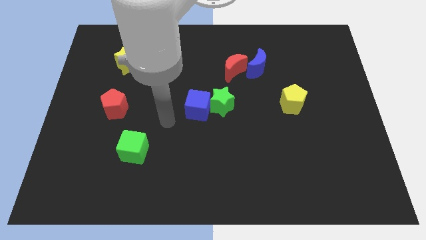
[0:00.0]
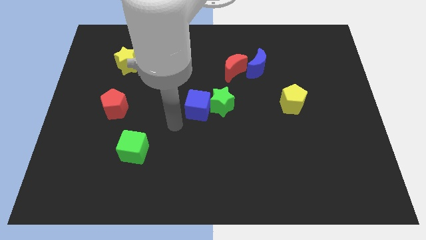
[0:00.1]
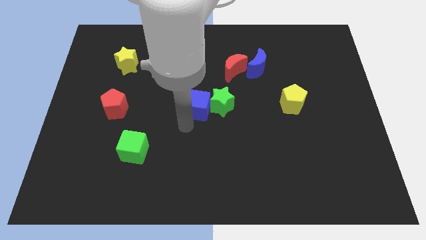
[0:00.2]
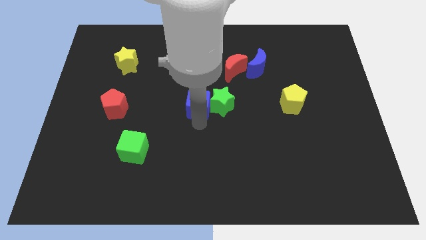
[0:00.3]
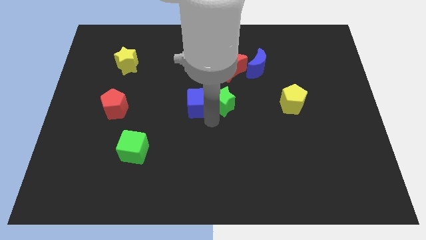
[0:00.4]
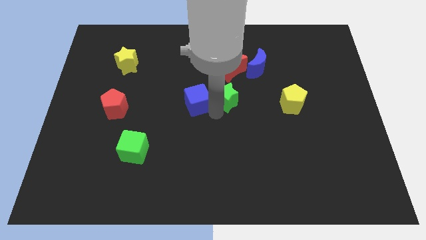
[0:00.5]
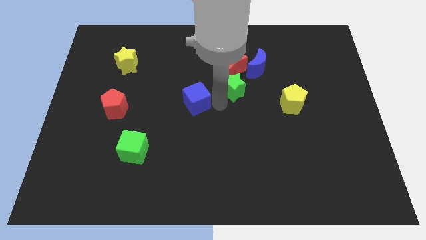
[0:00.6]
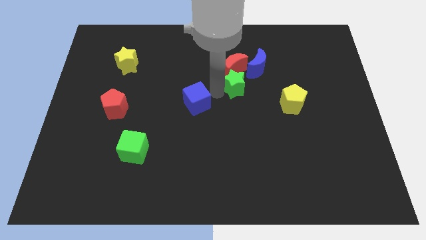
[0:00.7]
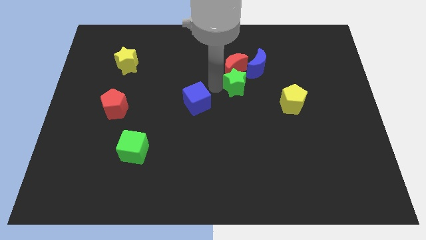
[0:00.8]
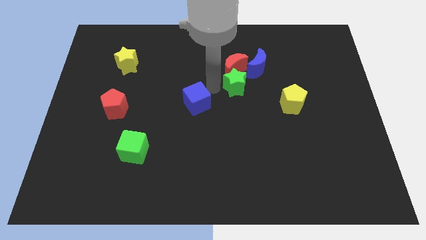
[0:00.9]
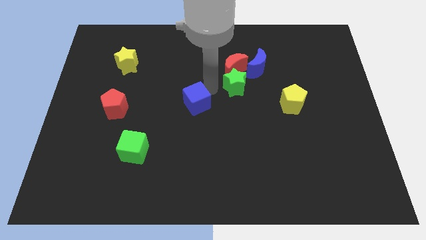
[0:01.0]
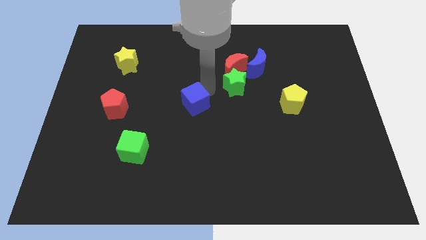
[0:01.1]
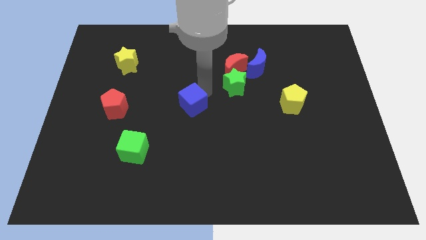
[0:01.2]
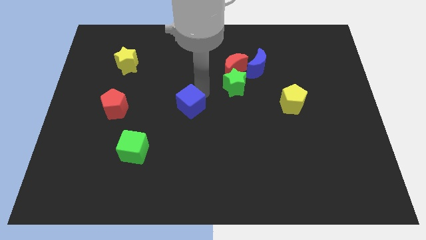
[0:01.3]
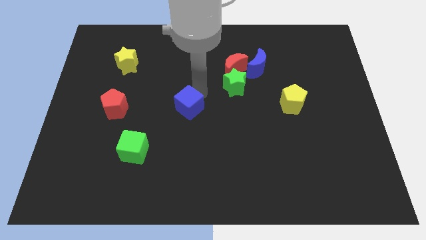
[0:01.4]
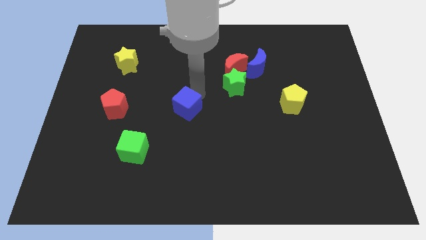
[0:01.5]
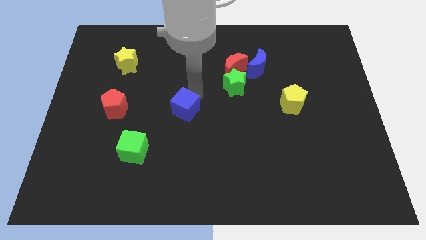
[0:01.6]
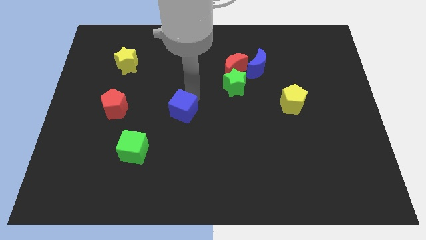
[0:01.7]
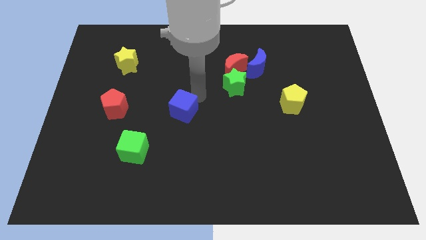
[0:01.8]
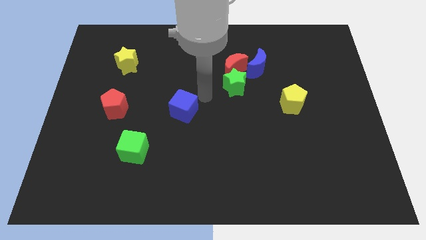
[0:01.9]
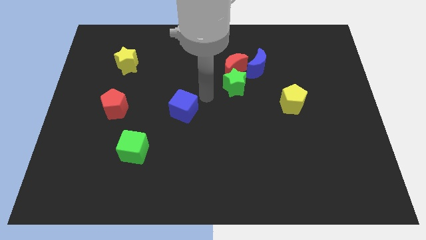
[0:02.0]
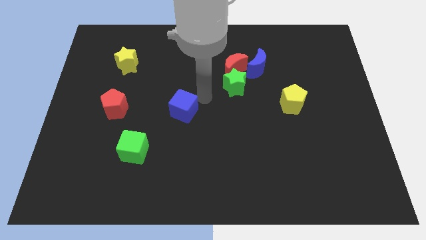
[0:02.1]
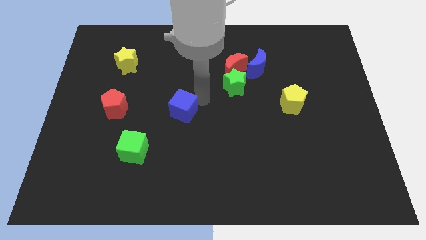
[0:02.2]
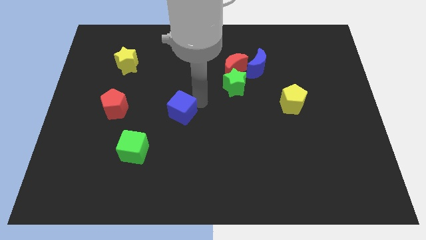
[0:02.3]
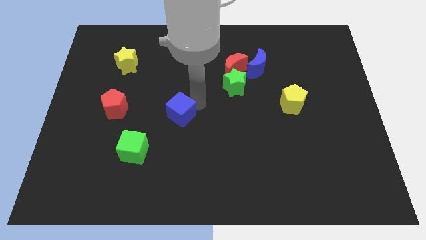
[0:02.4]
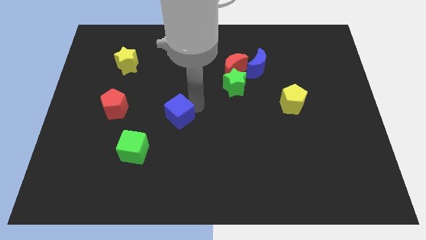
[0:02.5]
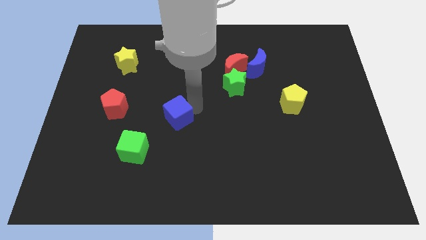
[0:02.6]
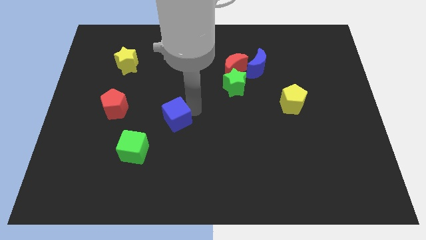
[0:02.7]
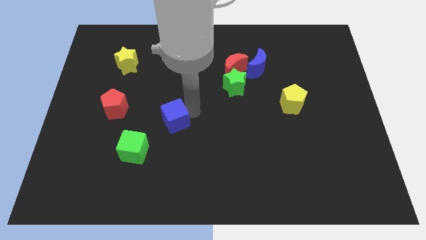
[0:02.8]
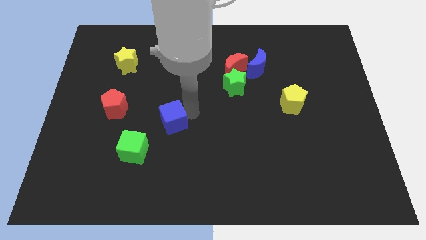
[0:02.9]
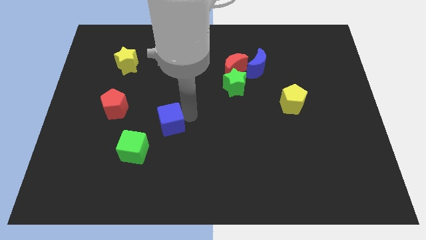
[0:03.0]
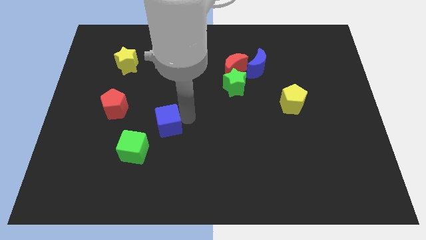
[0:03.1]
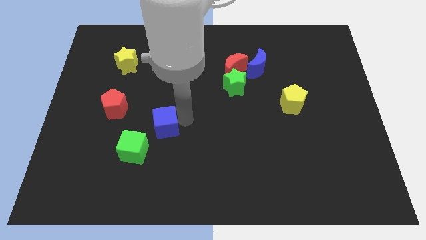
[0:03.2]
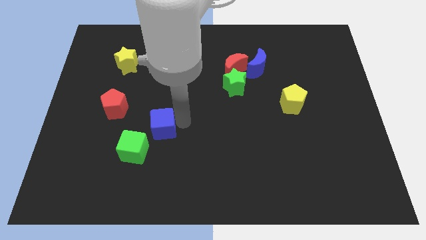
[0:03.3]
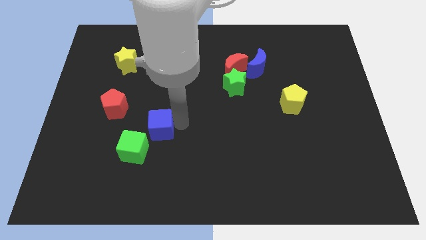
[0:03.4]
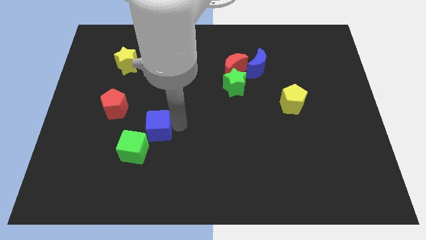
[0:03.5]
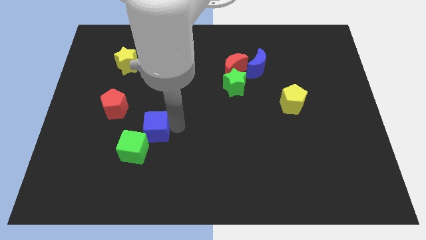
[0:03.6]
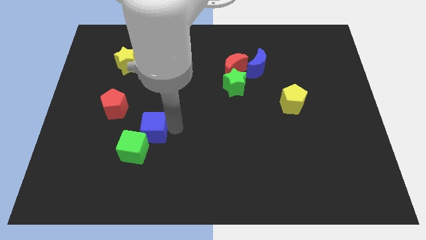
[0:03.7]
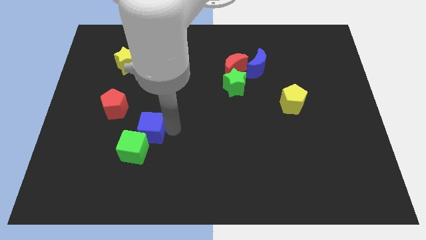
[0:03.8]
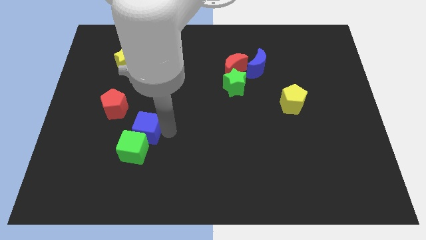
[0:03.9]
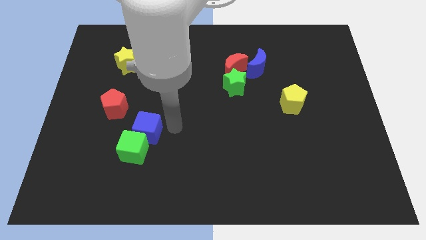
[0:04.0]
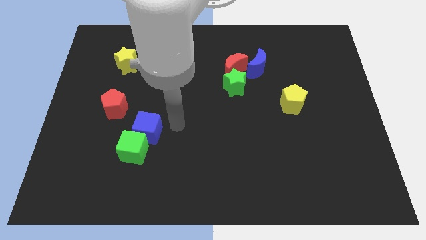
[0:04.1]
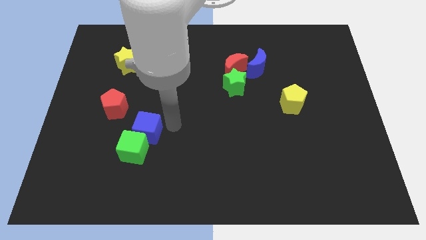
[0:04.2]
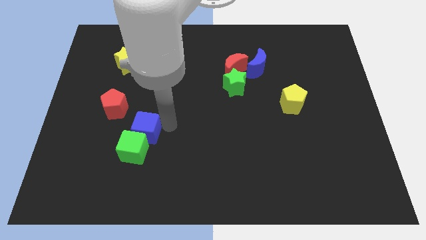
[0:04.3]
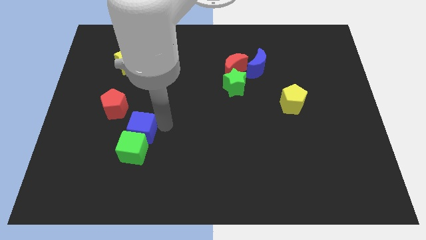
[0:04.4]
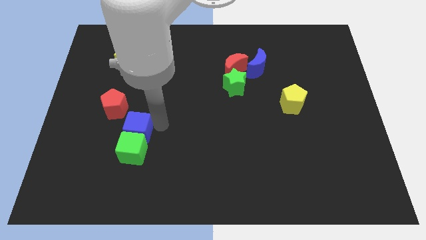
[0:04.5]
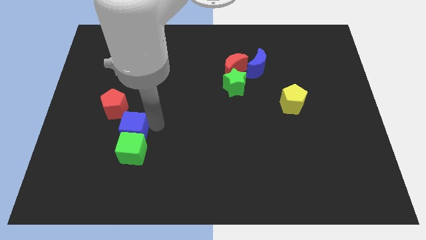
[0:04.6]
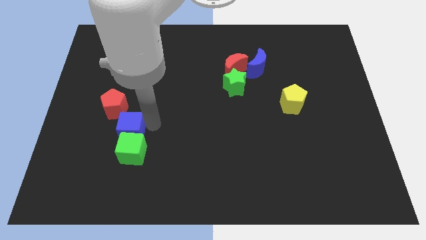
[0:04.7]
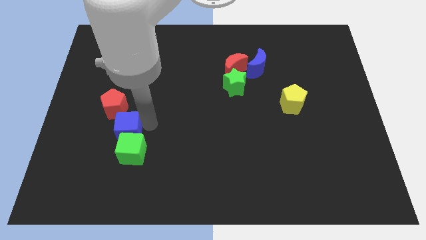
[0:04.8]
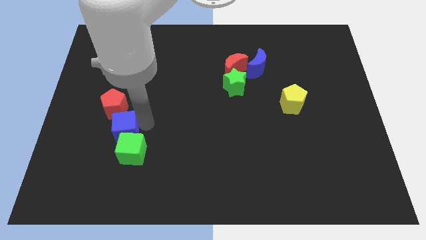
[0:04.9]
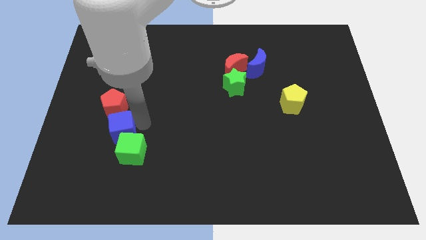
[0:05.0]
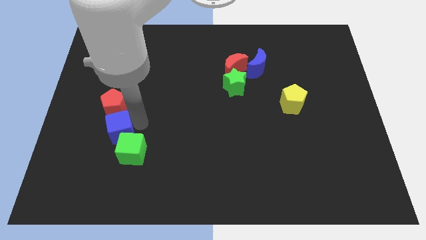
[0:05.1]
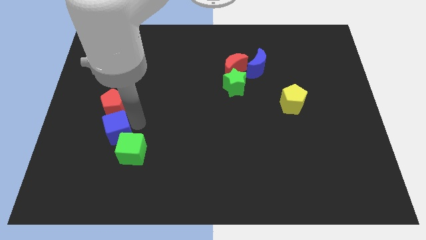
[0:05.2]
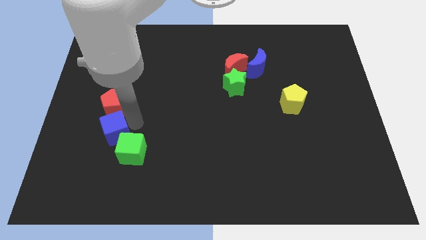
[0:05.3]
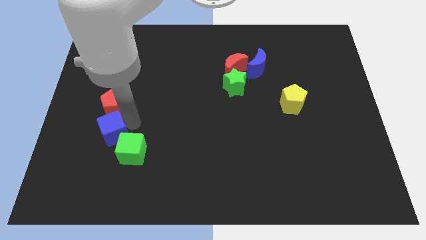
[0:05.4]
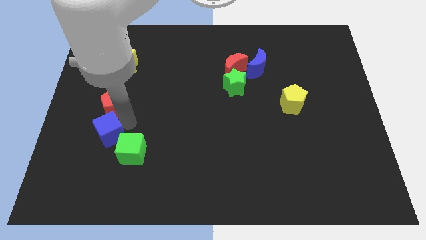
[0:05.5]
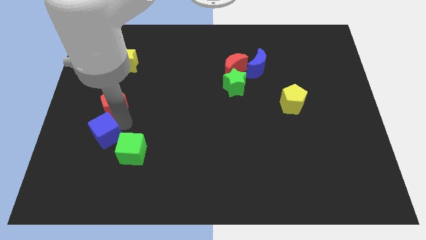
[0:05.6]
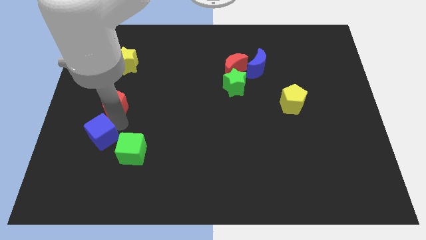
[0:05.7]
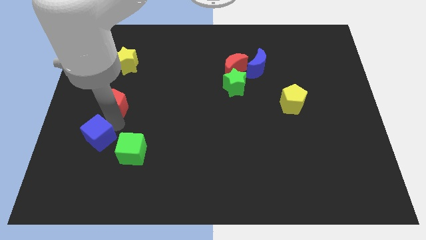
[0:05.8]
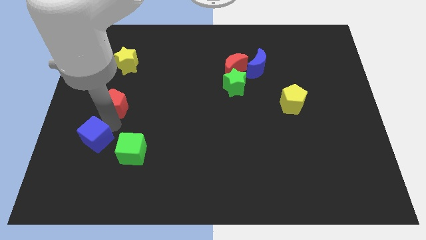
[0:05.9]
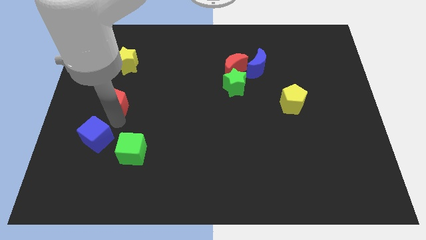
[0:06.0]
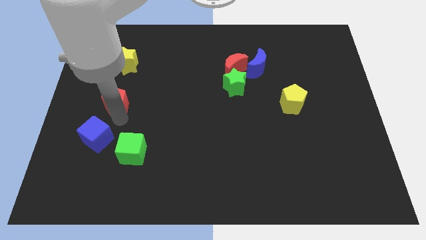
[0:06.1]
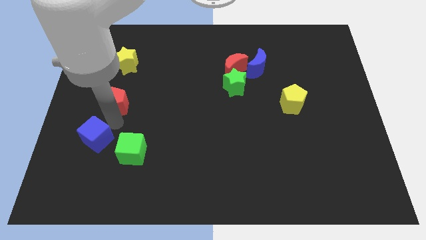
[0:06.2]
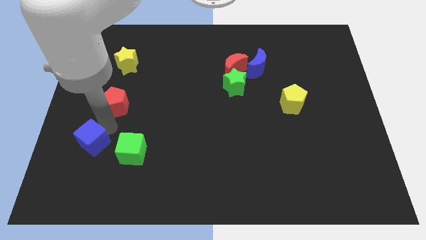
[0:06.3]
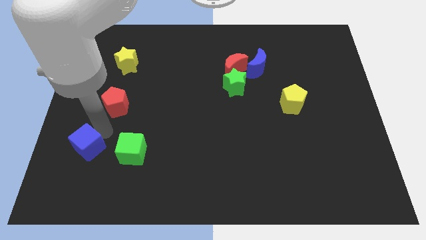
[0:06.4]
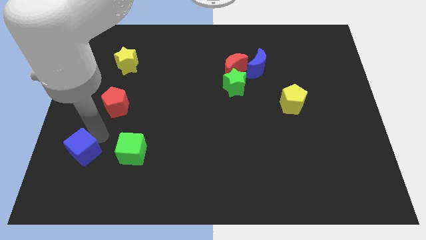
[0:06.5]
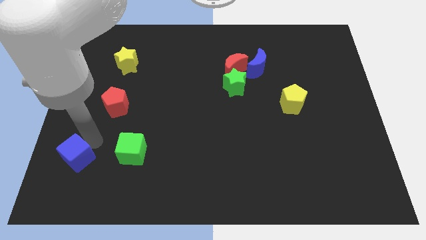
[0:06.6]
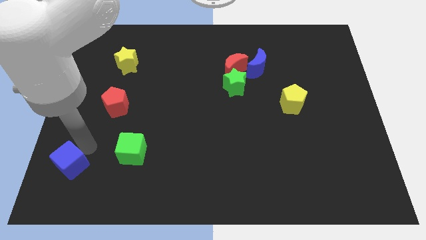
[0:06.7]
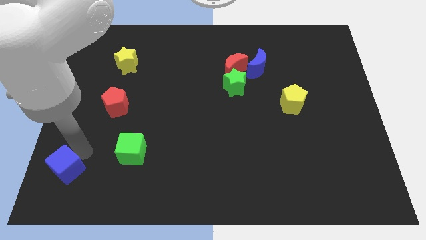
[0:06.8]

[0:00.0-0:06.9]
move the blue cube to the bottom left
